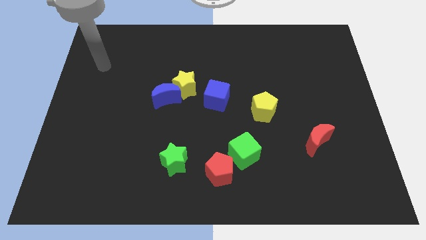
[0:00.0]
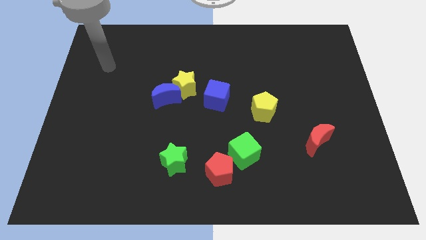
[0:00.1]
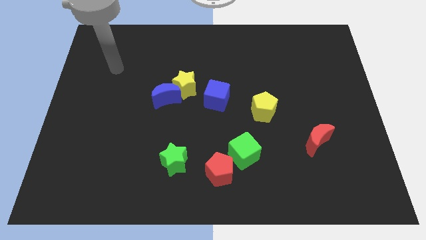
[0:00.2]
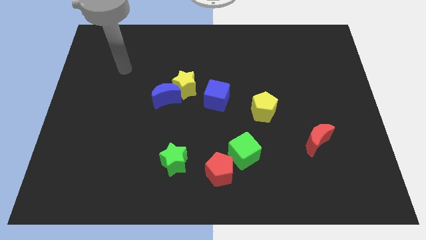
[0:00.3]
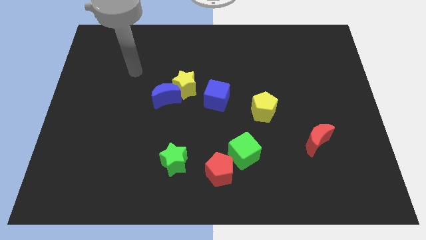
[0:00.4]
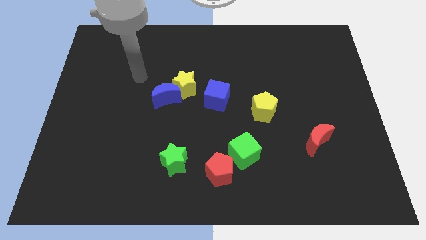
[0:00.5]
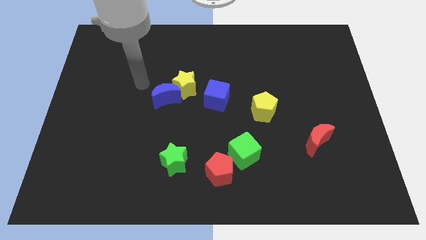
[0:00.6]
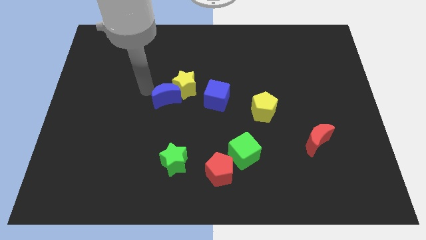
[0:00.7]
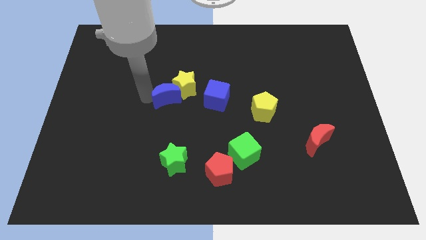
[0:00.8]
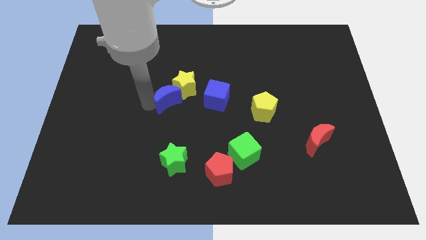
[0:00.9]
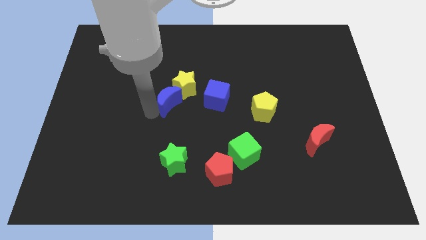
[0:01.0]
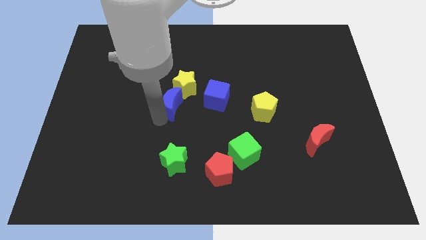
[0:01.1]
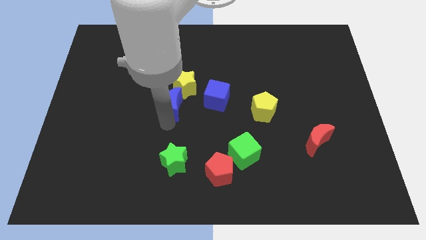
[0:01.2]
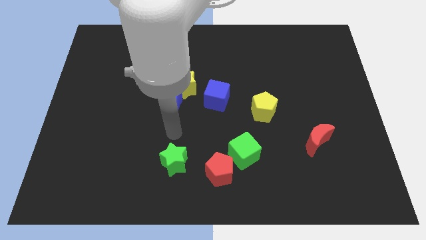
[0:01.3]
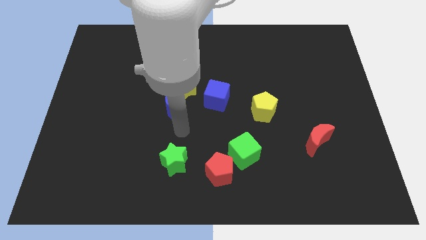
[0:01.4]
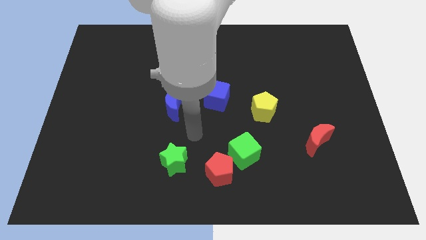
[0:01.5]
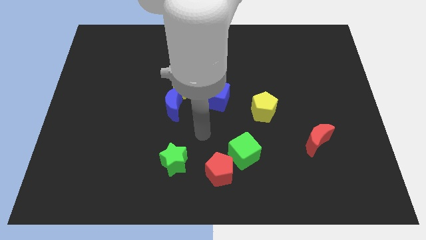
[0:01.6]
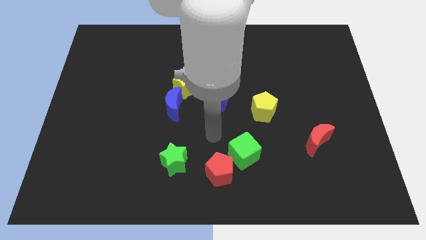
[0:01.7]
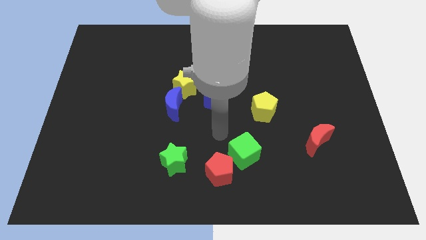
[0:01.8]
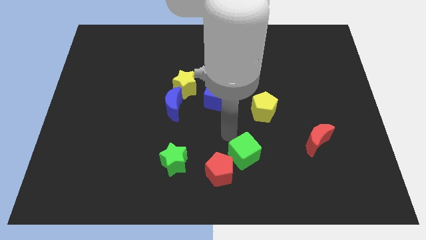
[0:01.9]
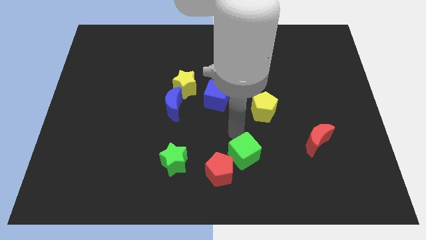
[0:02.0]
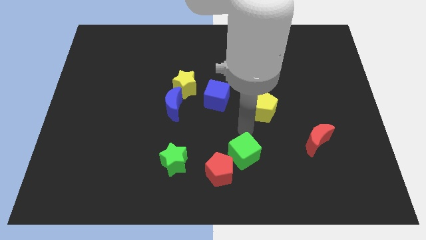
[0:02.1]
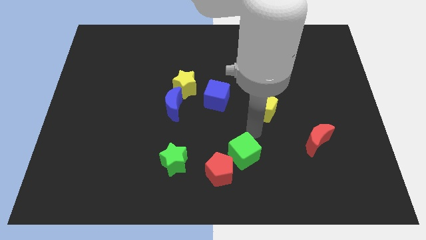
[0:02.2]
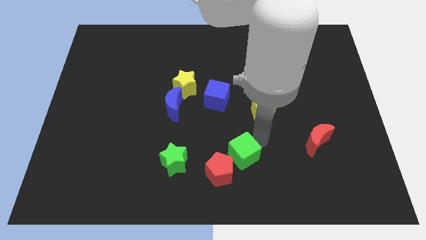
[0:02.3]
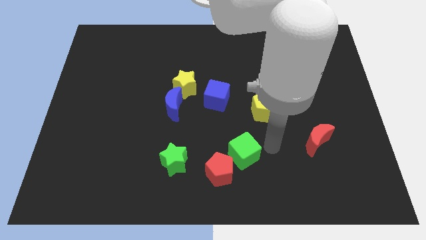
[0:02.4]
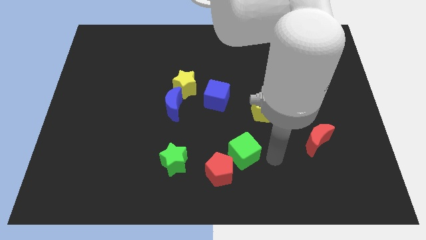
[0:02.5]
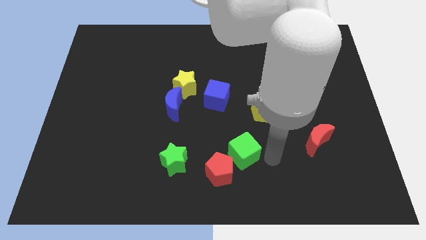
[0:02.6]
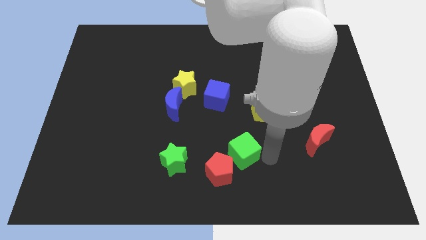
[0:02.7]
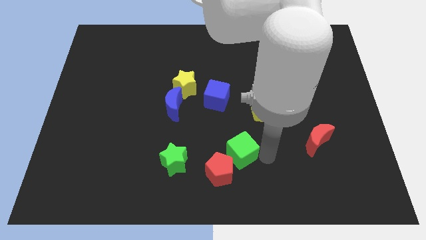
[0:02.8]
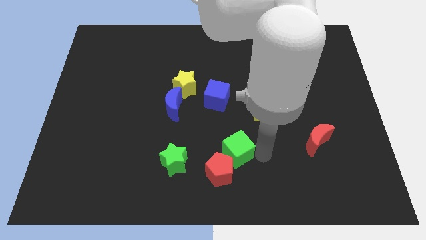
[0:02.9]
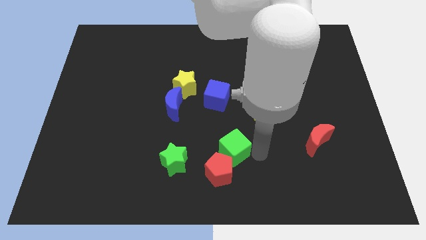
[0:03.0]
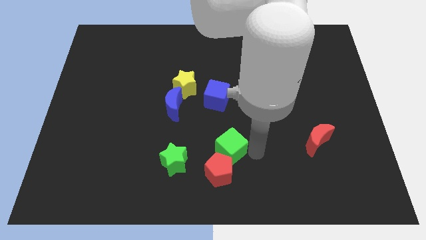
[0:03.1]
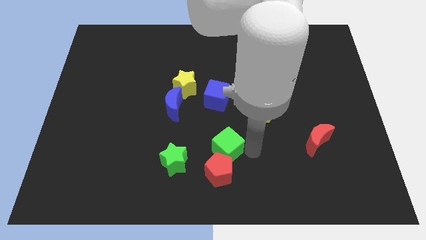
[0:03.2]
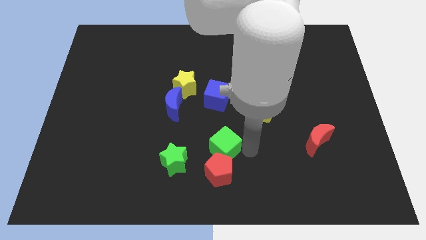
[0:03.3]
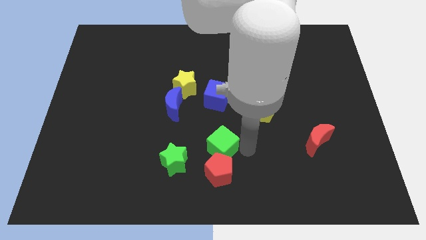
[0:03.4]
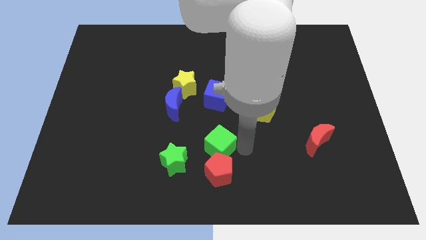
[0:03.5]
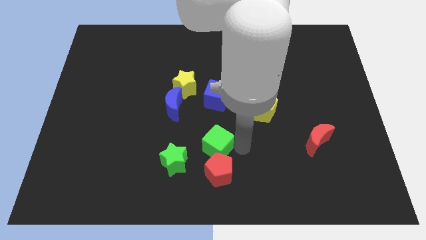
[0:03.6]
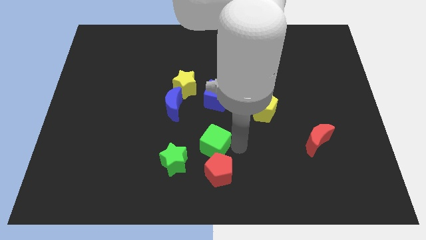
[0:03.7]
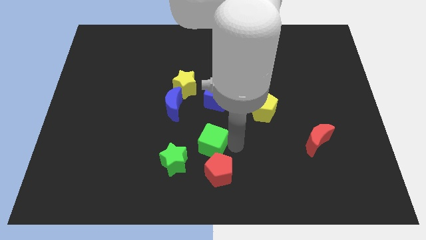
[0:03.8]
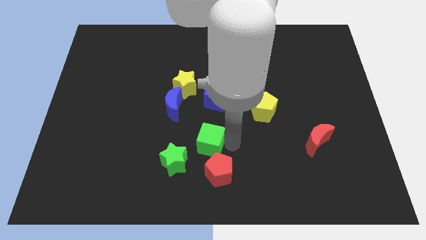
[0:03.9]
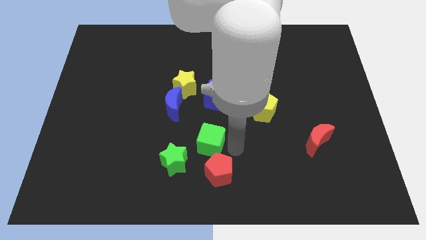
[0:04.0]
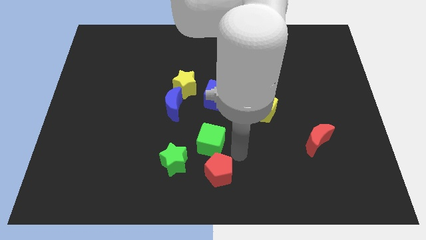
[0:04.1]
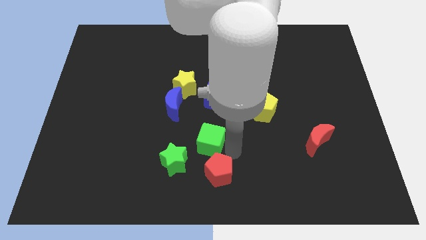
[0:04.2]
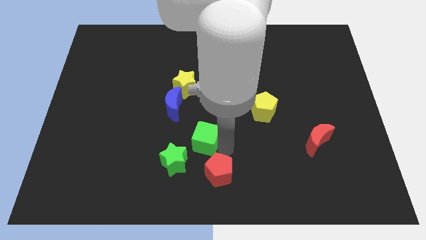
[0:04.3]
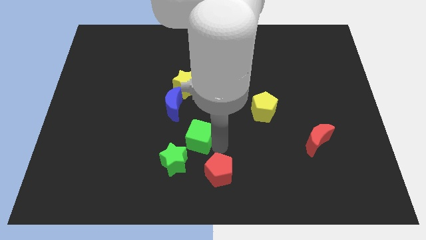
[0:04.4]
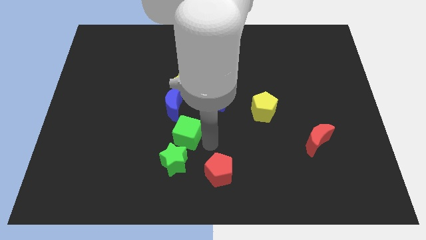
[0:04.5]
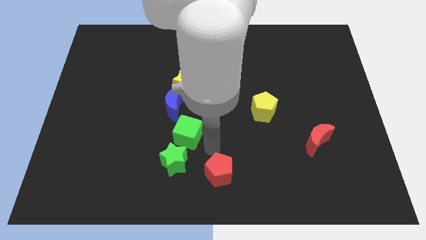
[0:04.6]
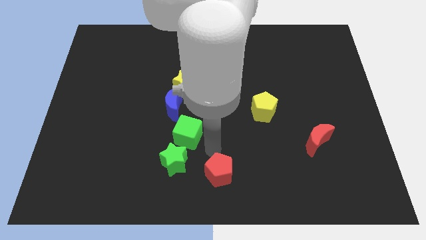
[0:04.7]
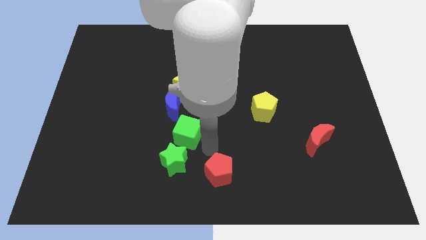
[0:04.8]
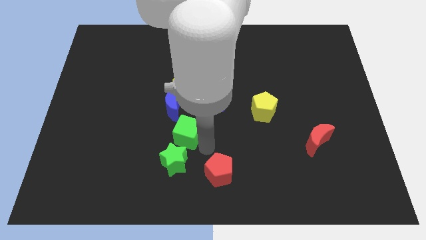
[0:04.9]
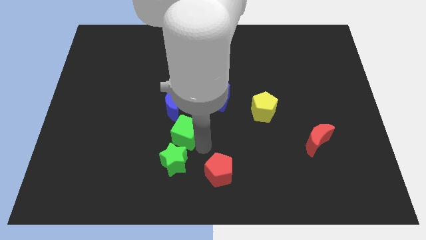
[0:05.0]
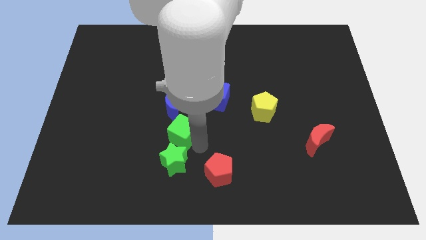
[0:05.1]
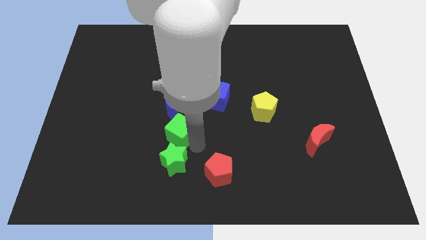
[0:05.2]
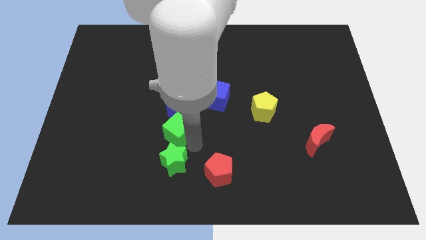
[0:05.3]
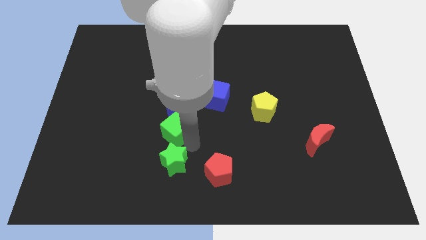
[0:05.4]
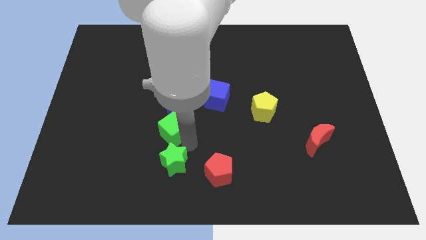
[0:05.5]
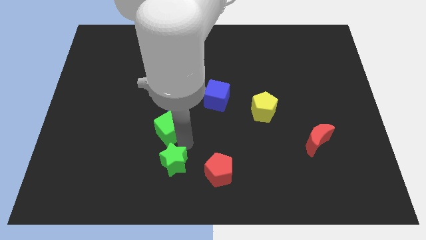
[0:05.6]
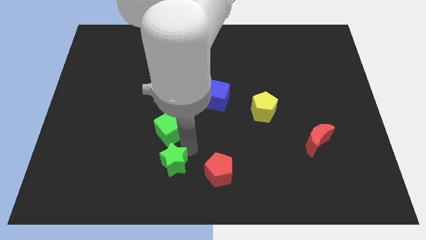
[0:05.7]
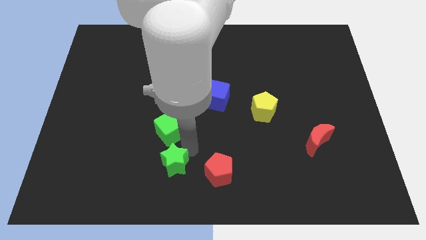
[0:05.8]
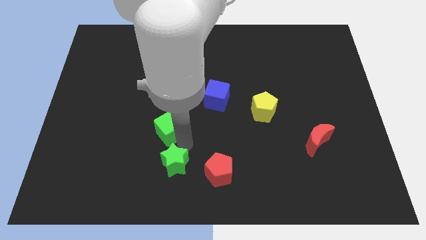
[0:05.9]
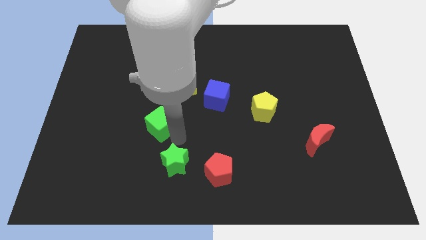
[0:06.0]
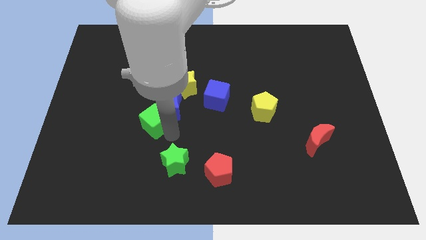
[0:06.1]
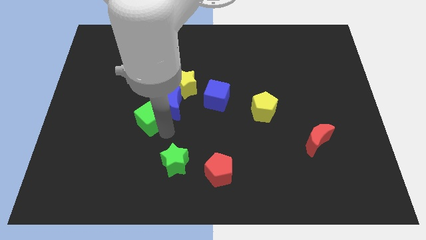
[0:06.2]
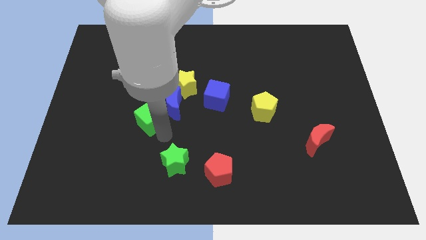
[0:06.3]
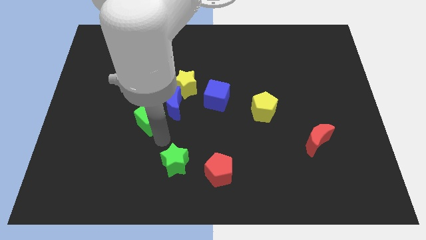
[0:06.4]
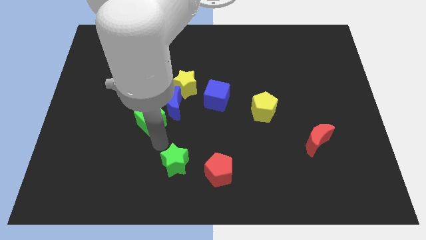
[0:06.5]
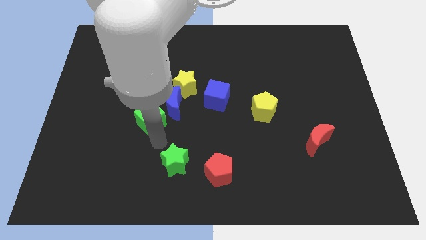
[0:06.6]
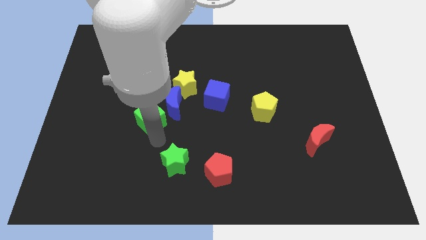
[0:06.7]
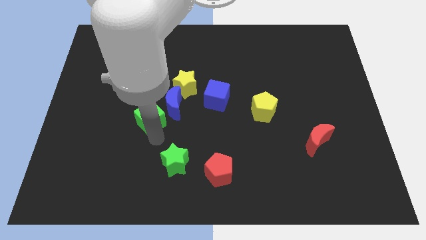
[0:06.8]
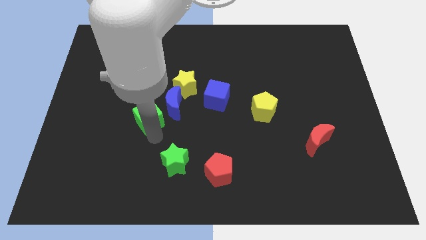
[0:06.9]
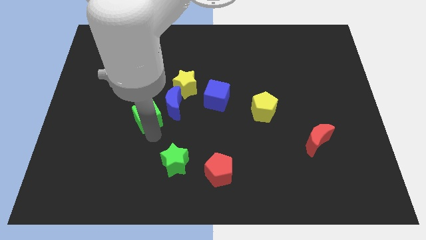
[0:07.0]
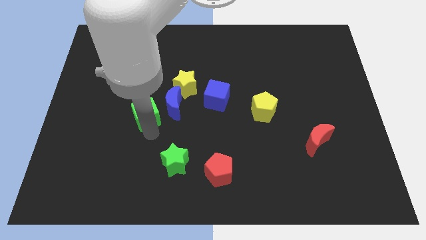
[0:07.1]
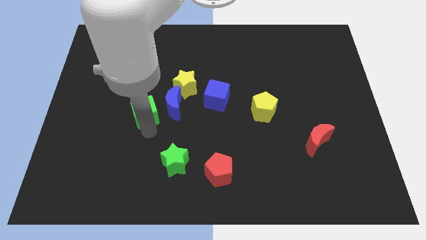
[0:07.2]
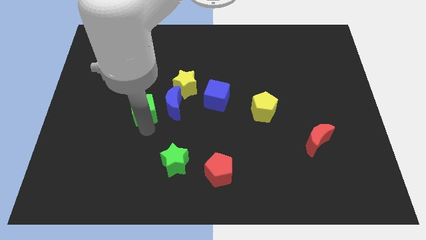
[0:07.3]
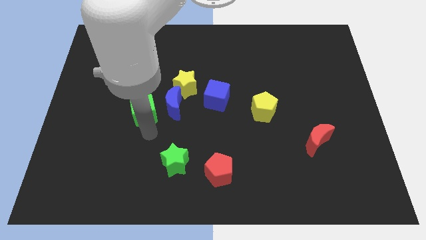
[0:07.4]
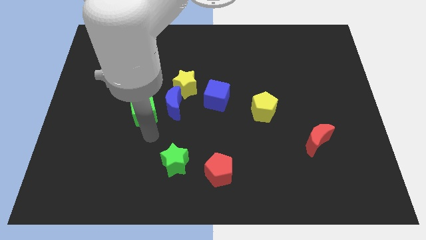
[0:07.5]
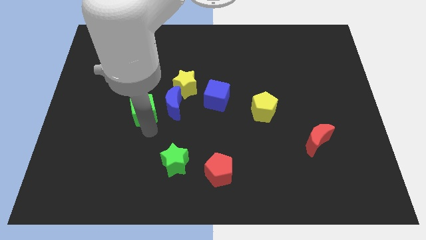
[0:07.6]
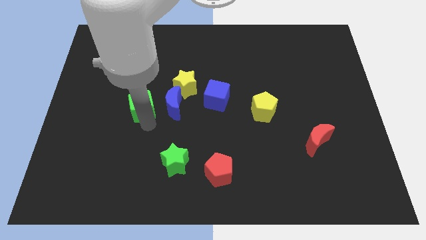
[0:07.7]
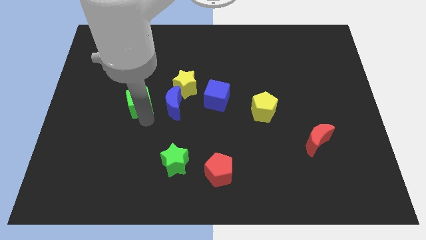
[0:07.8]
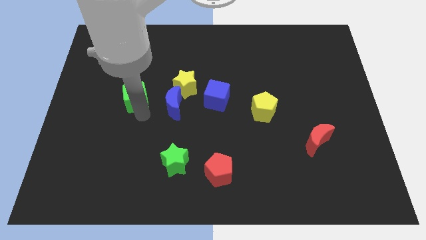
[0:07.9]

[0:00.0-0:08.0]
move the green cube diagonally up and to the left of the blue moon
